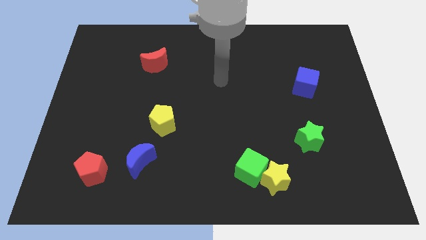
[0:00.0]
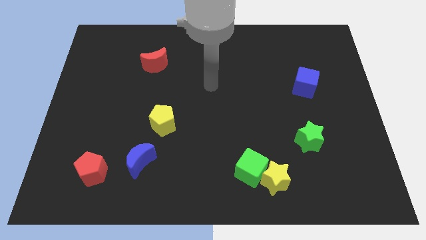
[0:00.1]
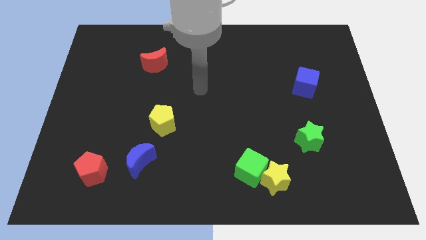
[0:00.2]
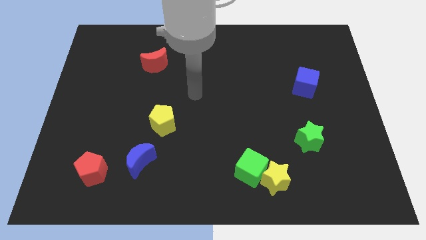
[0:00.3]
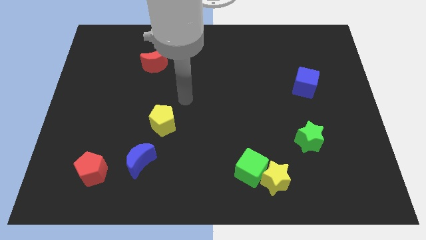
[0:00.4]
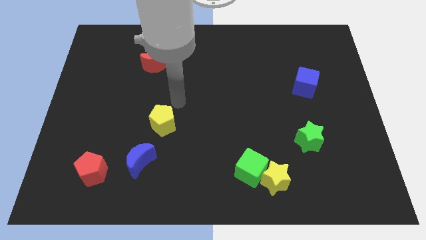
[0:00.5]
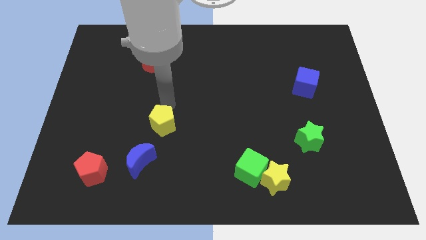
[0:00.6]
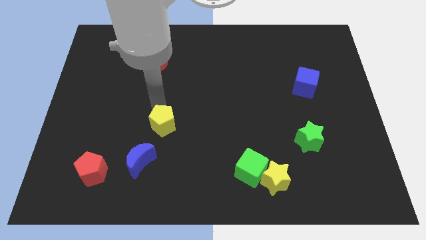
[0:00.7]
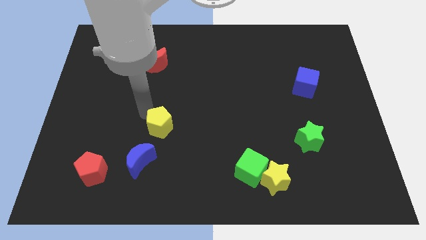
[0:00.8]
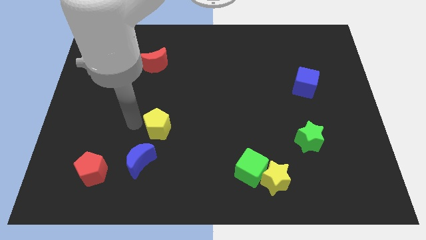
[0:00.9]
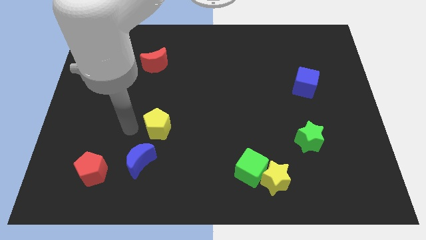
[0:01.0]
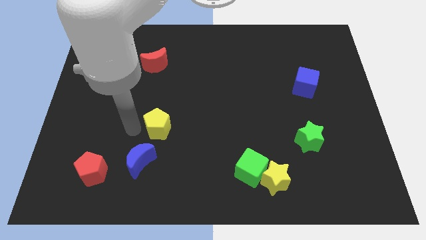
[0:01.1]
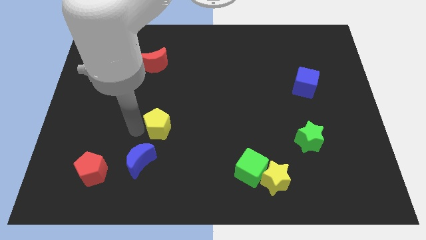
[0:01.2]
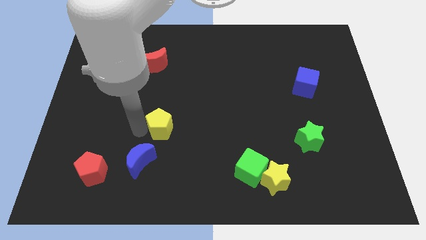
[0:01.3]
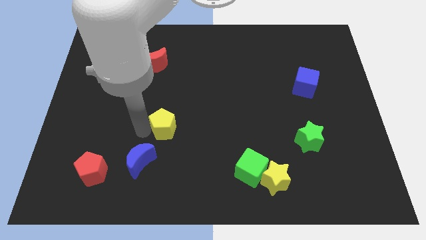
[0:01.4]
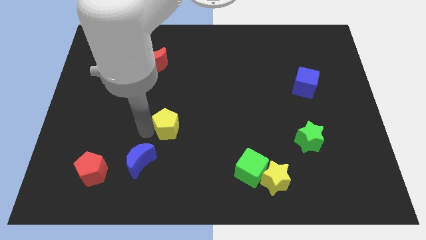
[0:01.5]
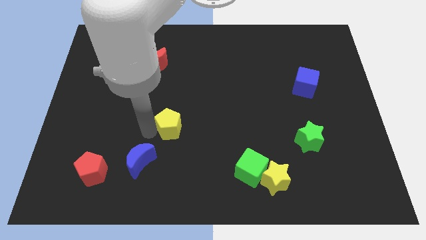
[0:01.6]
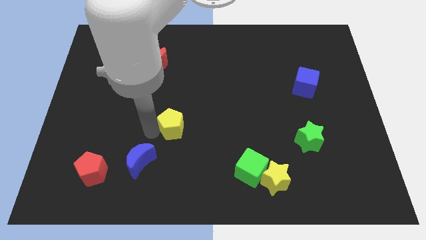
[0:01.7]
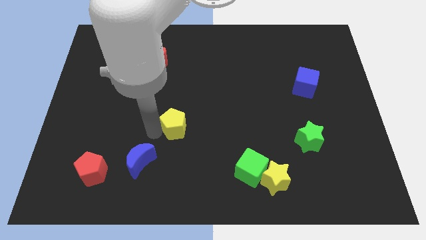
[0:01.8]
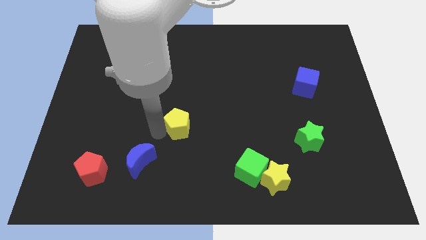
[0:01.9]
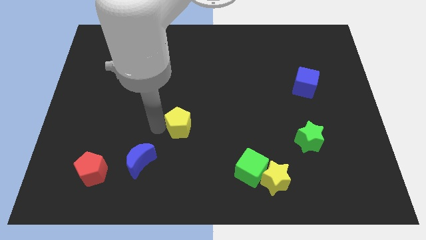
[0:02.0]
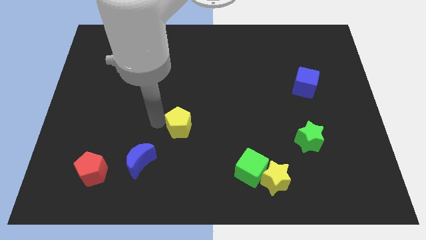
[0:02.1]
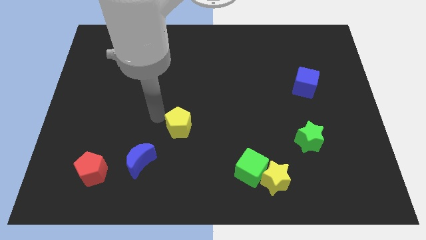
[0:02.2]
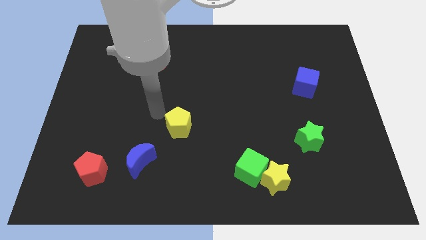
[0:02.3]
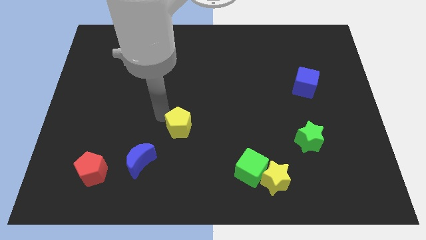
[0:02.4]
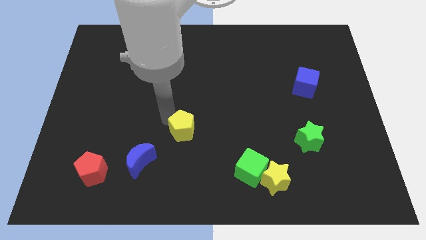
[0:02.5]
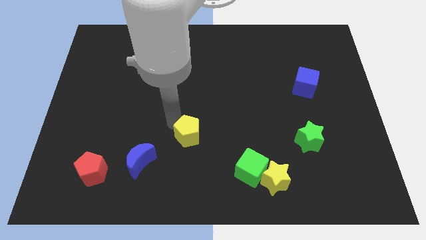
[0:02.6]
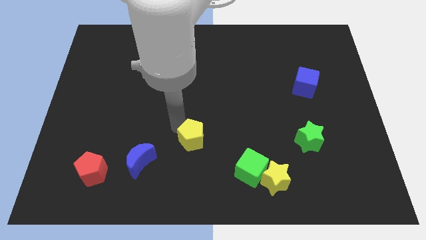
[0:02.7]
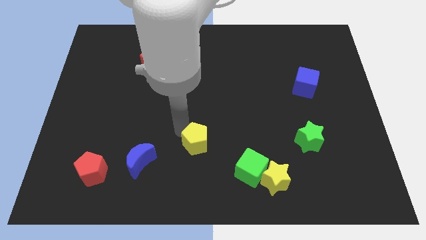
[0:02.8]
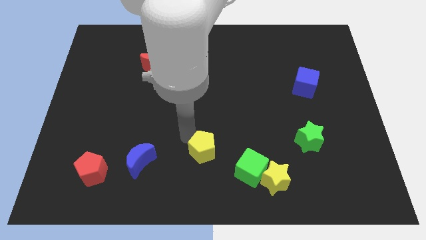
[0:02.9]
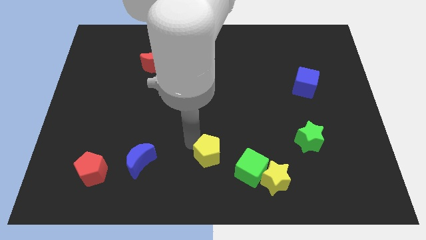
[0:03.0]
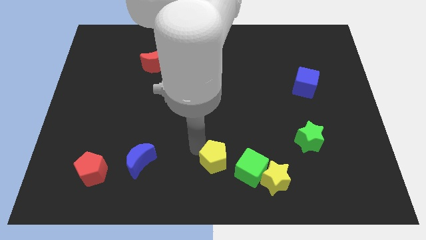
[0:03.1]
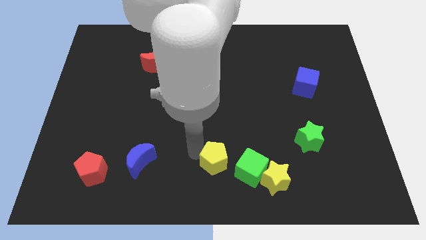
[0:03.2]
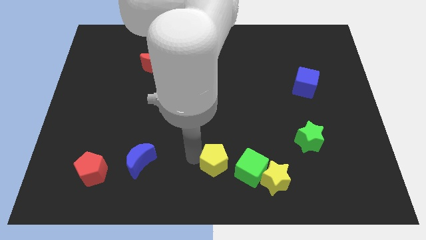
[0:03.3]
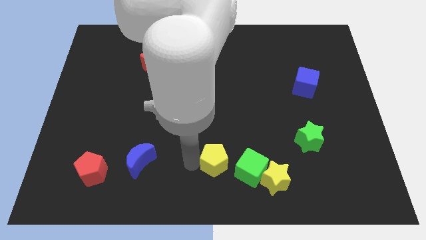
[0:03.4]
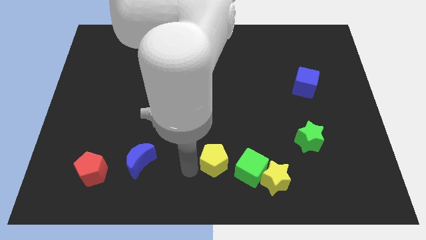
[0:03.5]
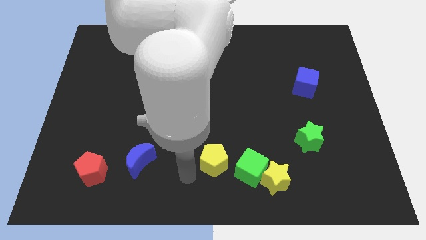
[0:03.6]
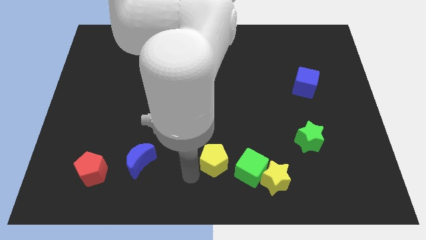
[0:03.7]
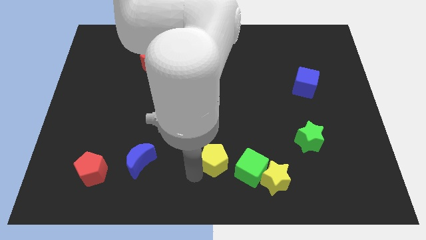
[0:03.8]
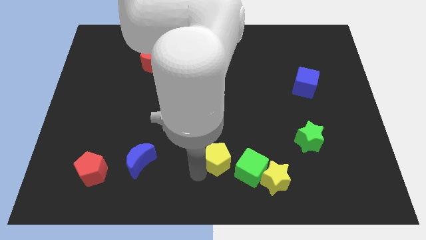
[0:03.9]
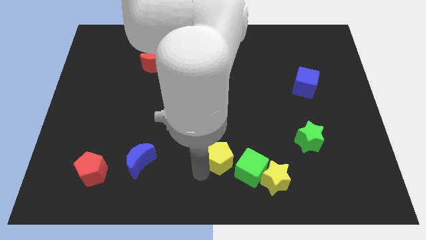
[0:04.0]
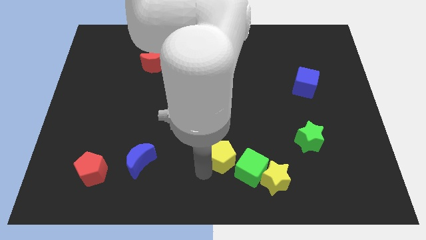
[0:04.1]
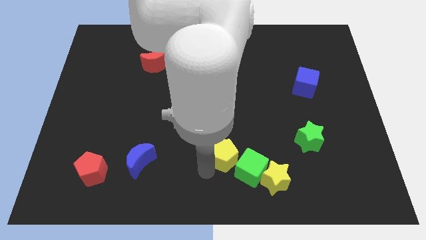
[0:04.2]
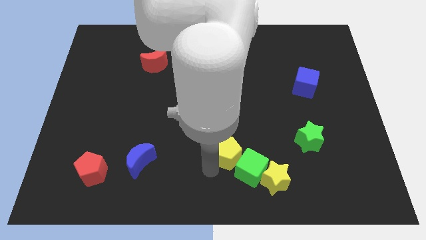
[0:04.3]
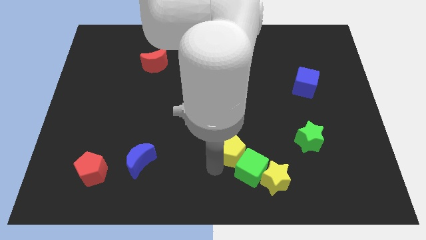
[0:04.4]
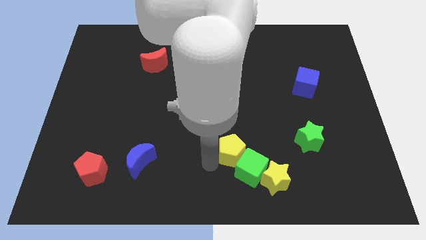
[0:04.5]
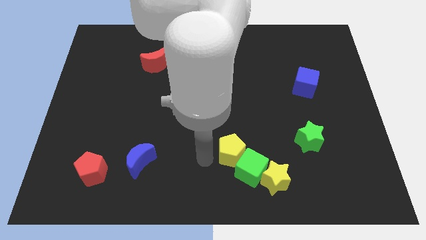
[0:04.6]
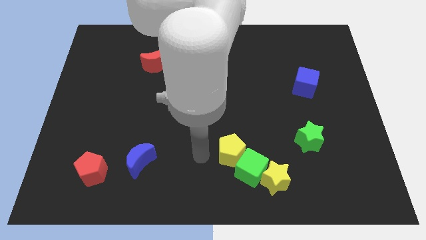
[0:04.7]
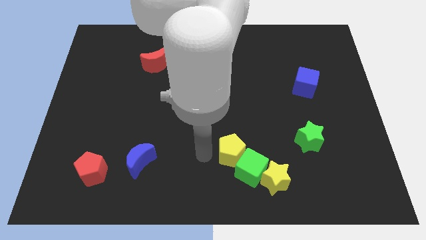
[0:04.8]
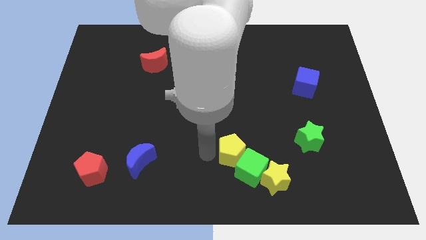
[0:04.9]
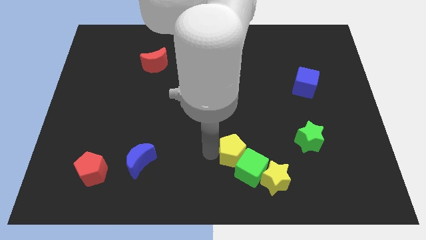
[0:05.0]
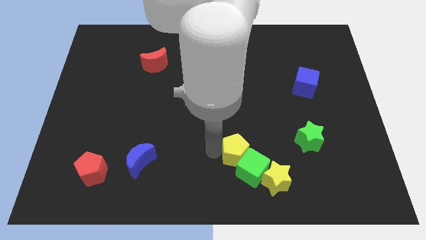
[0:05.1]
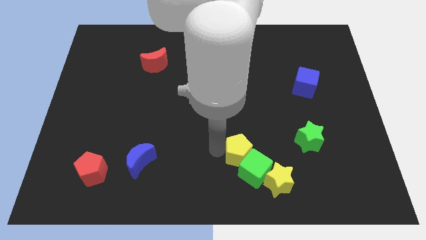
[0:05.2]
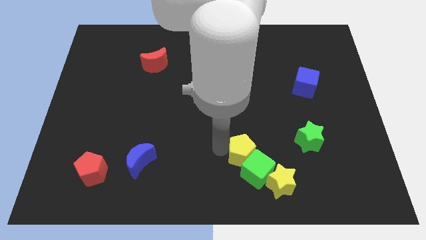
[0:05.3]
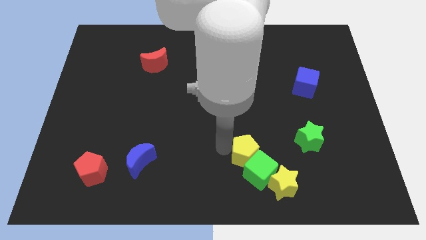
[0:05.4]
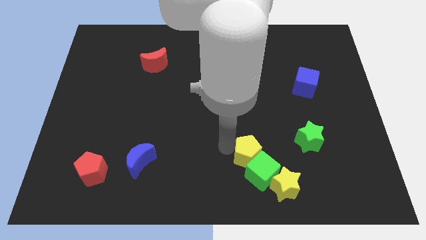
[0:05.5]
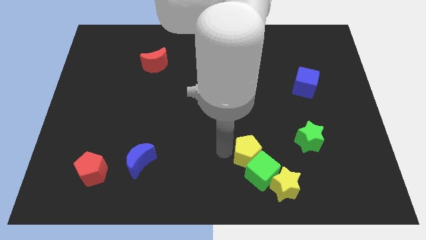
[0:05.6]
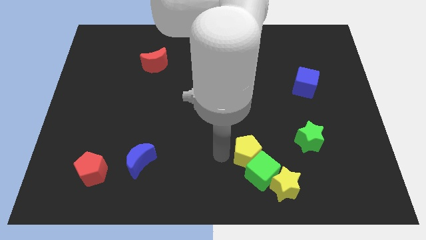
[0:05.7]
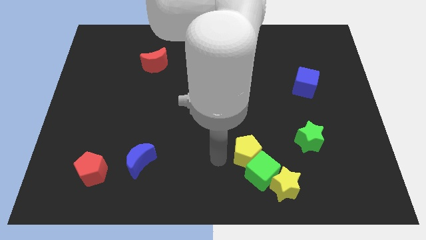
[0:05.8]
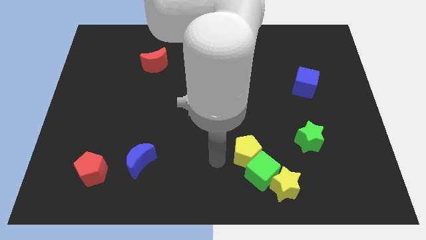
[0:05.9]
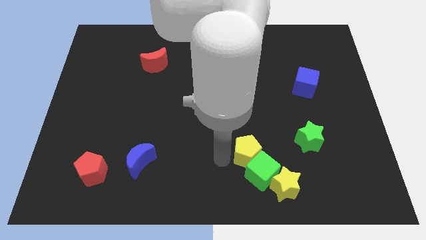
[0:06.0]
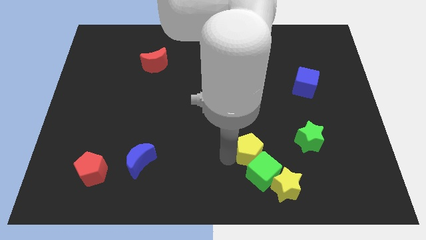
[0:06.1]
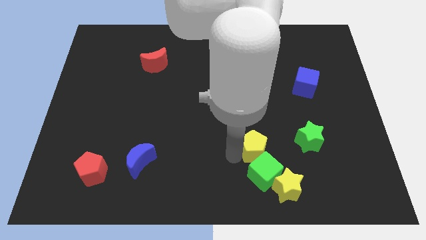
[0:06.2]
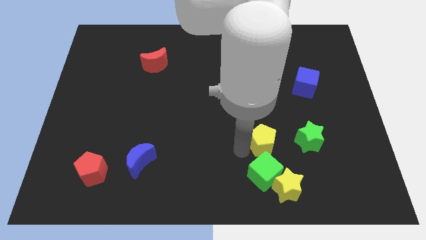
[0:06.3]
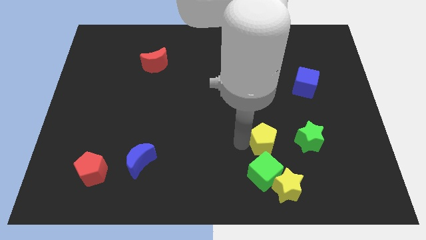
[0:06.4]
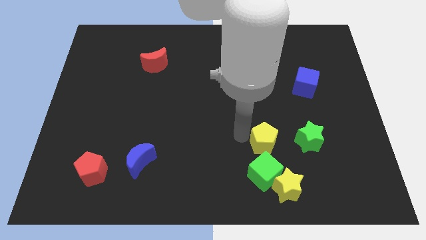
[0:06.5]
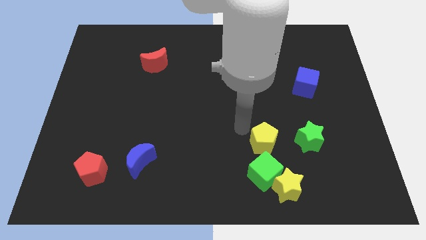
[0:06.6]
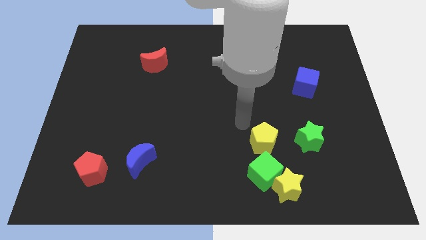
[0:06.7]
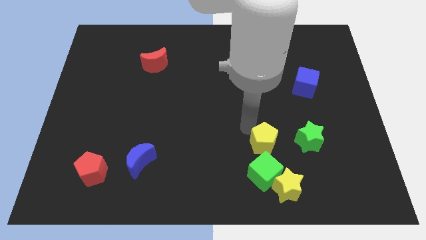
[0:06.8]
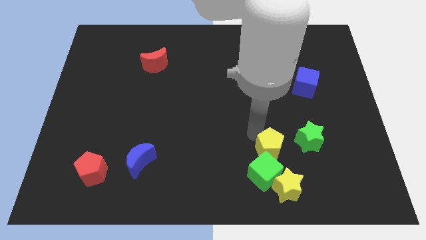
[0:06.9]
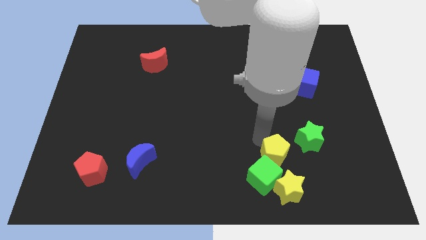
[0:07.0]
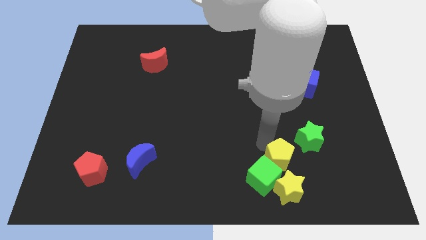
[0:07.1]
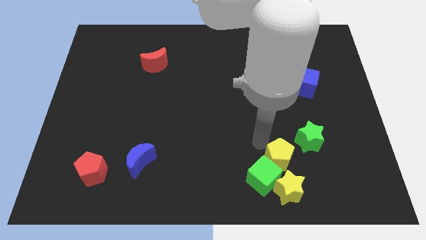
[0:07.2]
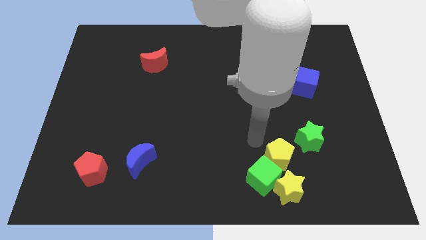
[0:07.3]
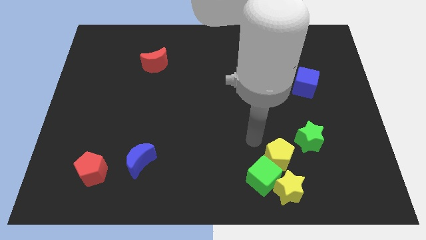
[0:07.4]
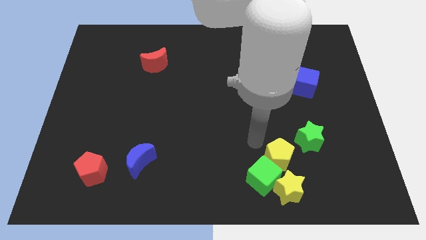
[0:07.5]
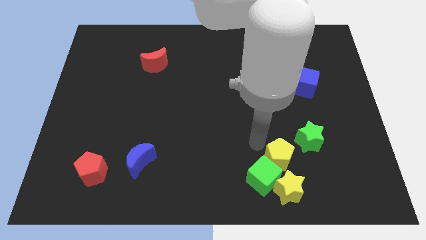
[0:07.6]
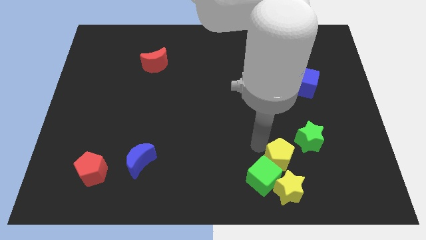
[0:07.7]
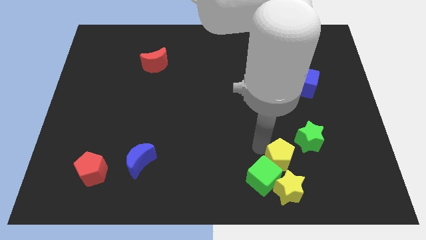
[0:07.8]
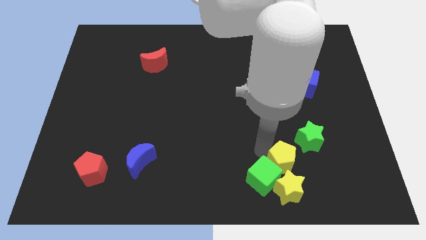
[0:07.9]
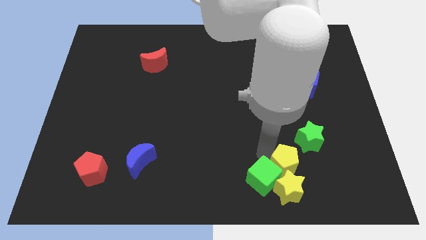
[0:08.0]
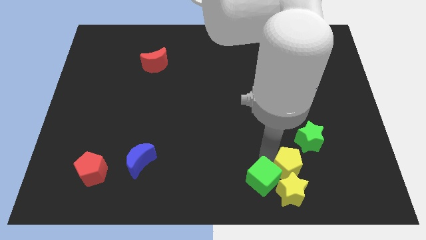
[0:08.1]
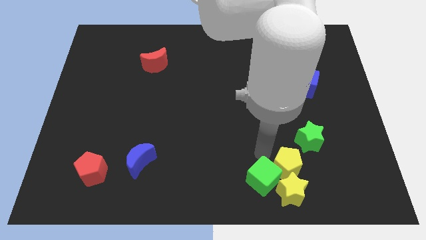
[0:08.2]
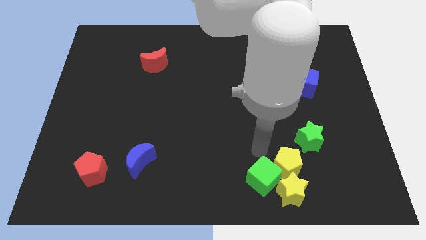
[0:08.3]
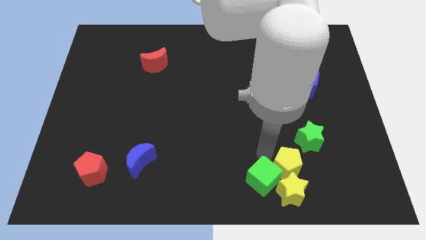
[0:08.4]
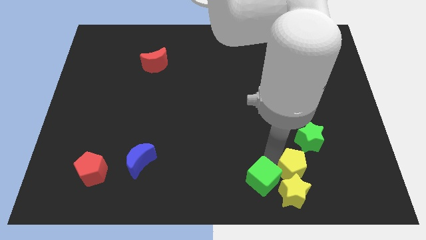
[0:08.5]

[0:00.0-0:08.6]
push the yellow pentagon to the bottom side of the green star
